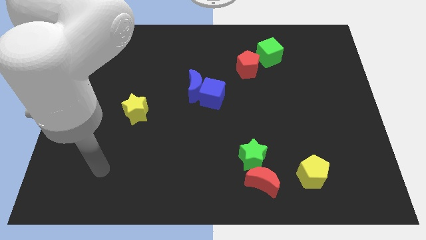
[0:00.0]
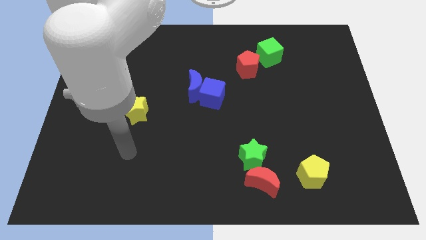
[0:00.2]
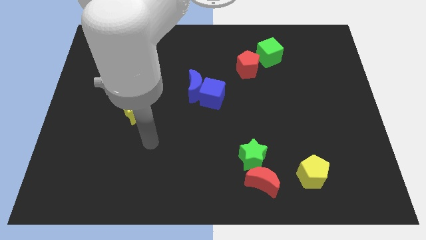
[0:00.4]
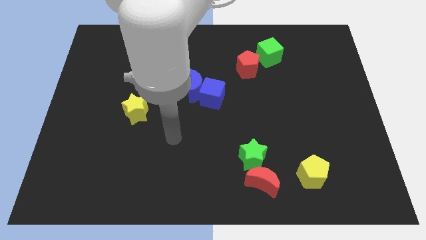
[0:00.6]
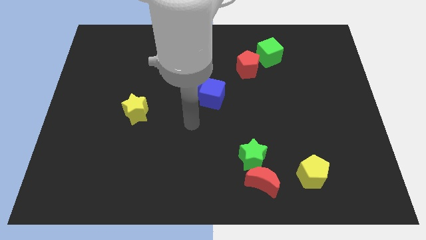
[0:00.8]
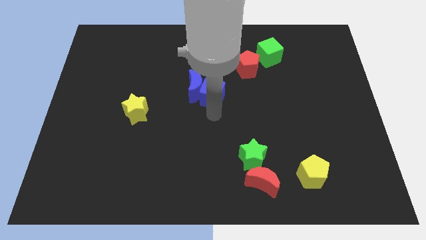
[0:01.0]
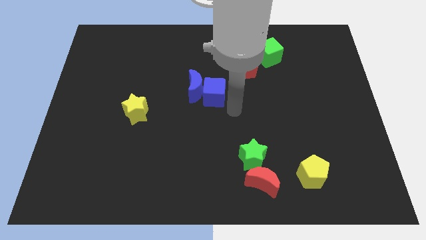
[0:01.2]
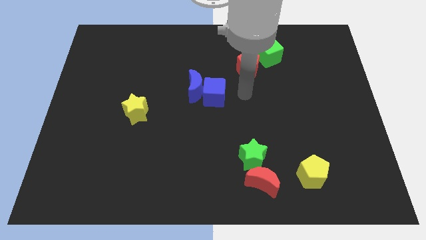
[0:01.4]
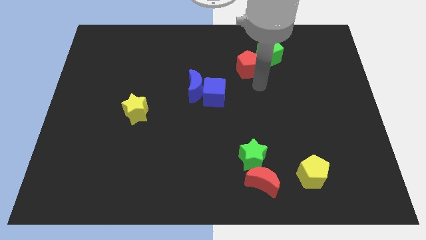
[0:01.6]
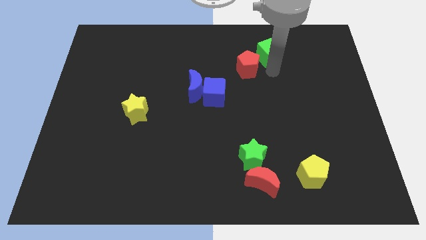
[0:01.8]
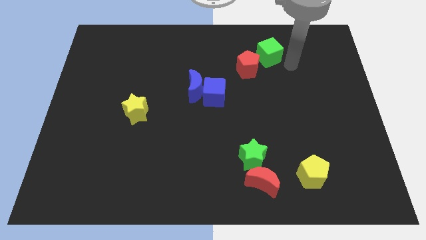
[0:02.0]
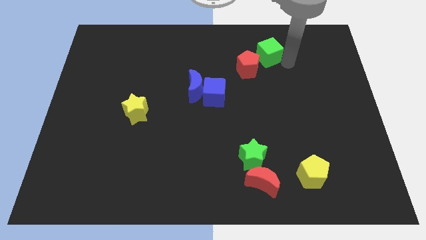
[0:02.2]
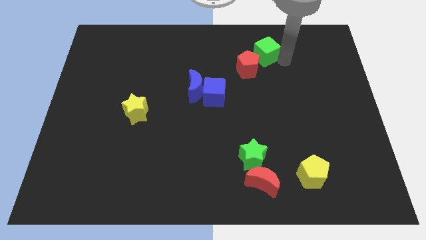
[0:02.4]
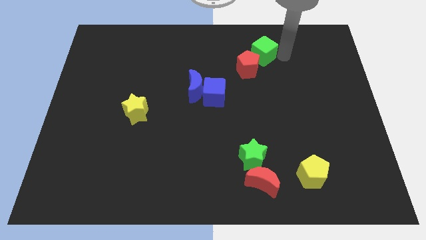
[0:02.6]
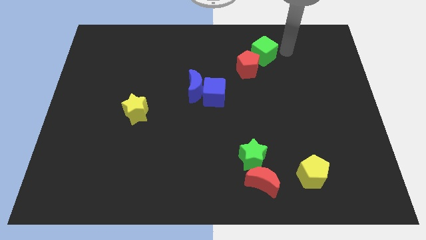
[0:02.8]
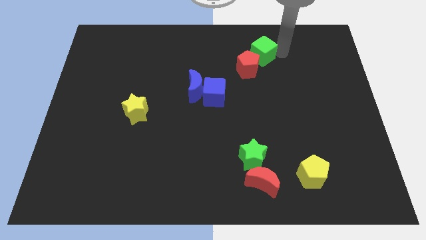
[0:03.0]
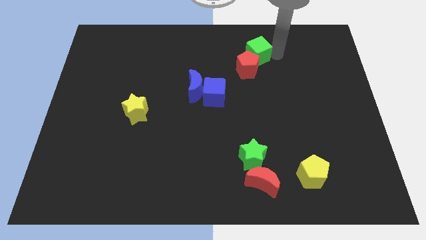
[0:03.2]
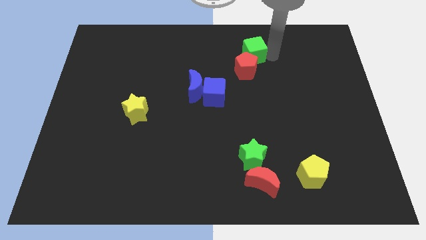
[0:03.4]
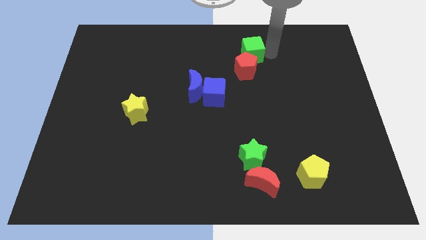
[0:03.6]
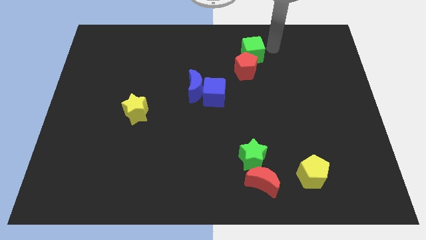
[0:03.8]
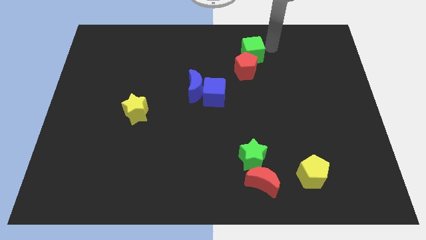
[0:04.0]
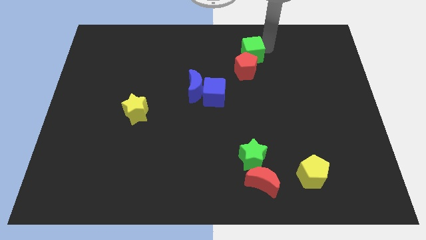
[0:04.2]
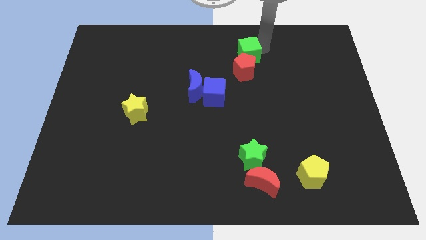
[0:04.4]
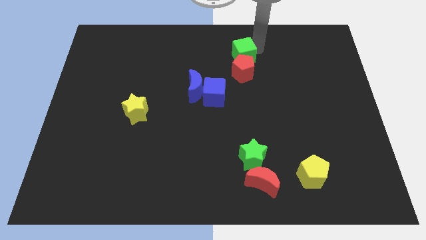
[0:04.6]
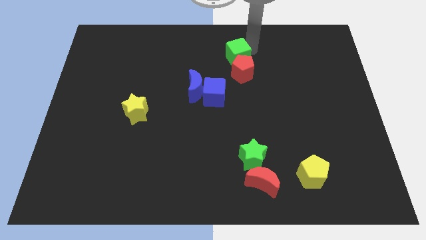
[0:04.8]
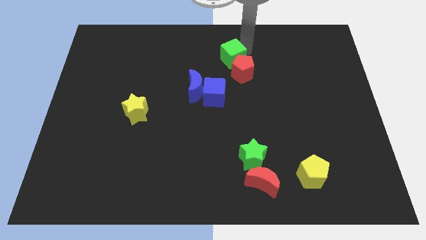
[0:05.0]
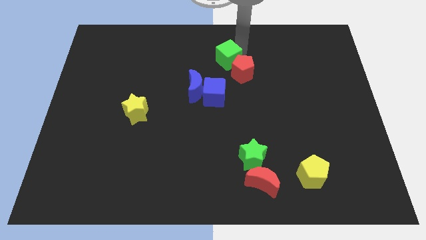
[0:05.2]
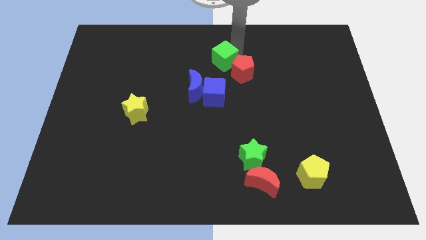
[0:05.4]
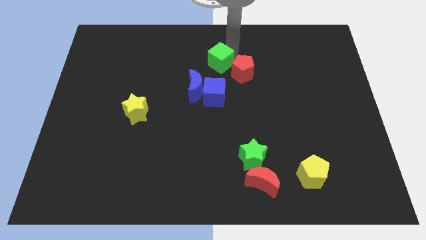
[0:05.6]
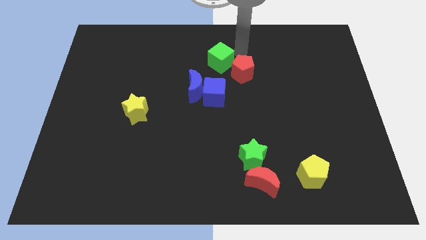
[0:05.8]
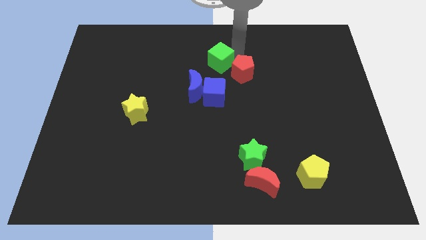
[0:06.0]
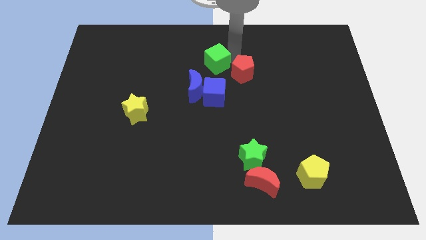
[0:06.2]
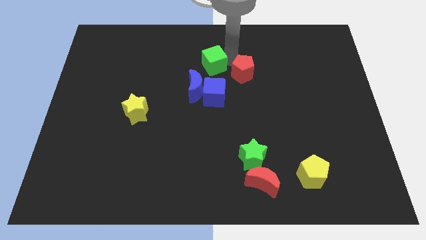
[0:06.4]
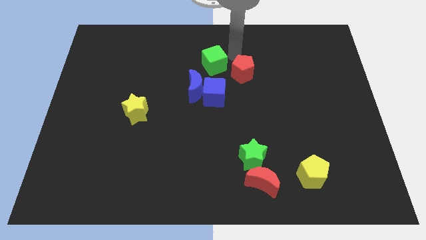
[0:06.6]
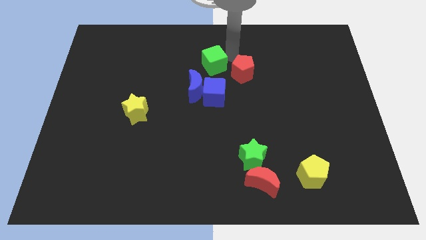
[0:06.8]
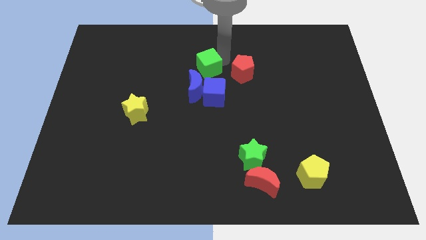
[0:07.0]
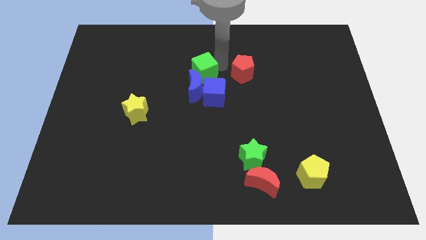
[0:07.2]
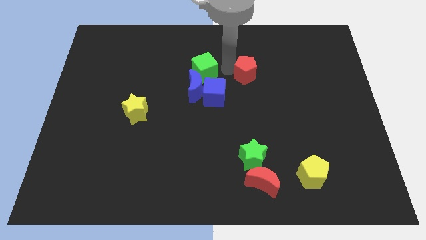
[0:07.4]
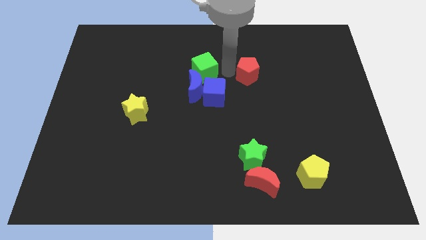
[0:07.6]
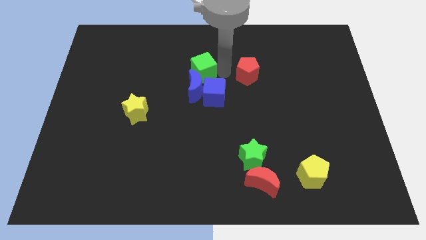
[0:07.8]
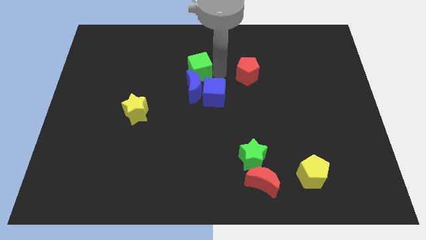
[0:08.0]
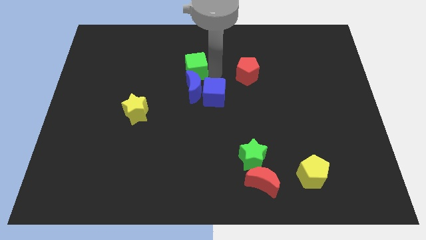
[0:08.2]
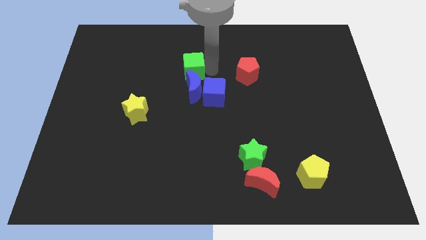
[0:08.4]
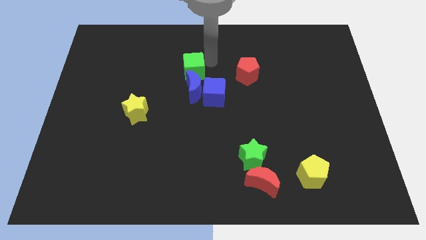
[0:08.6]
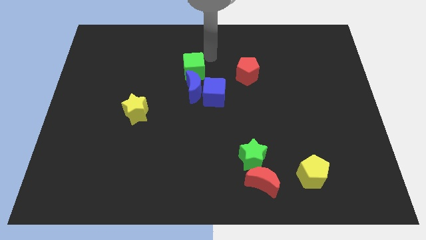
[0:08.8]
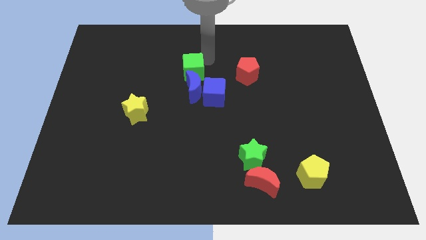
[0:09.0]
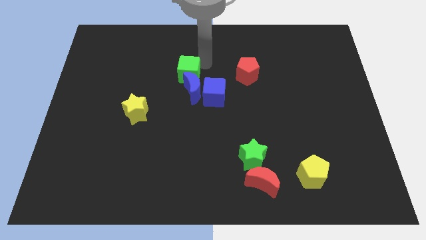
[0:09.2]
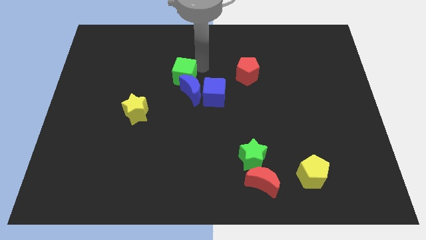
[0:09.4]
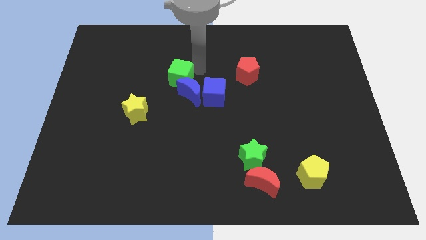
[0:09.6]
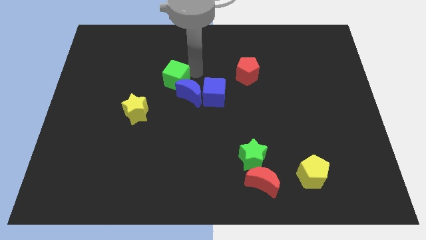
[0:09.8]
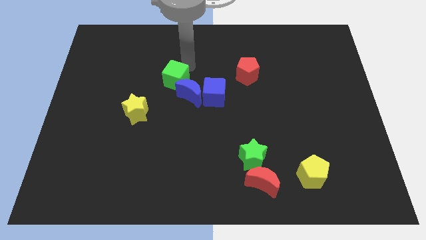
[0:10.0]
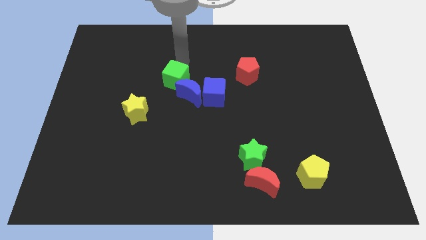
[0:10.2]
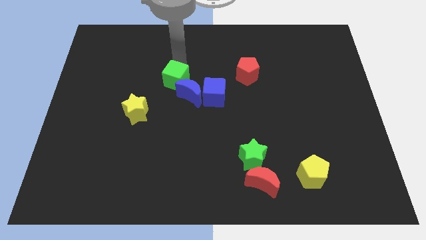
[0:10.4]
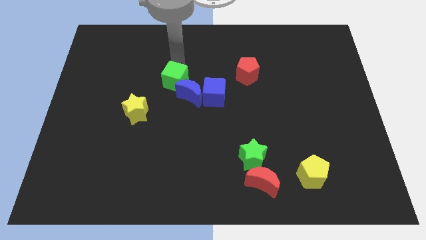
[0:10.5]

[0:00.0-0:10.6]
slide the green cube just left of the blue cube

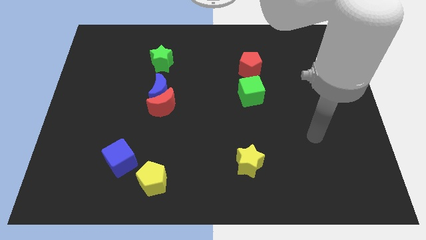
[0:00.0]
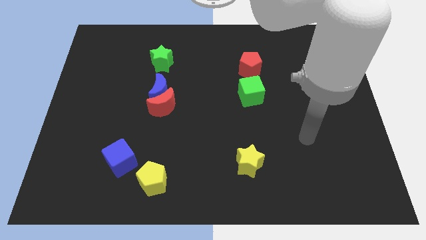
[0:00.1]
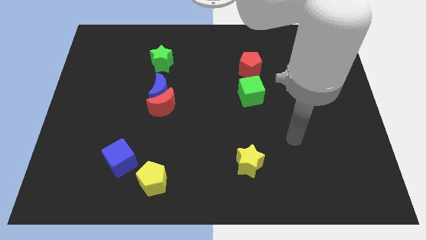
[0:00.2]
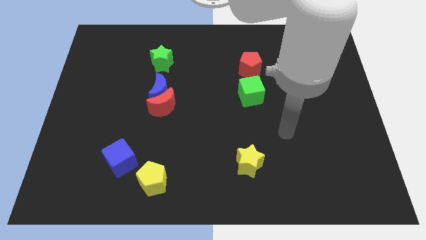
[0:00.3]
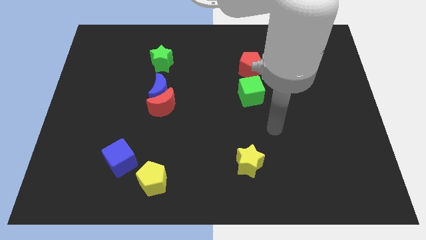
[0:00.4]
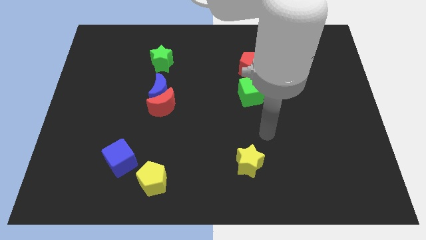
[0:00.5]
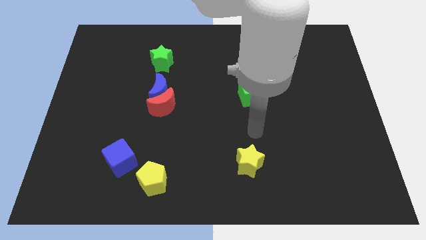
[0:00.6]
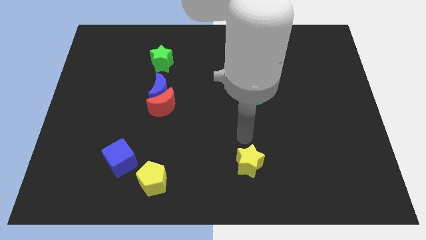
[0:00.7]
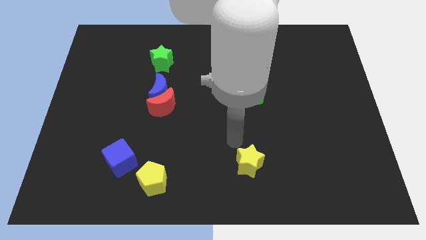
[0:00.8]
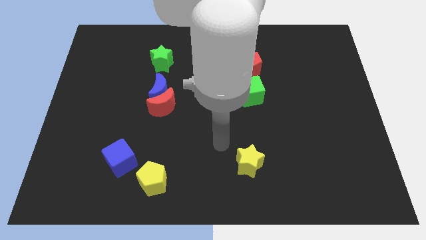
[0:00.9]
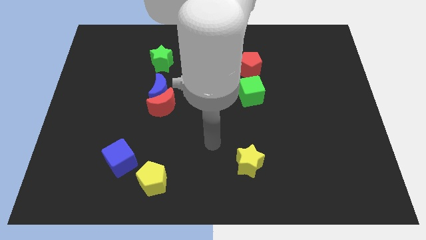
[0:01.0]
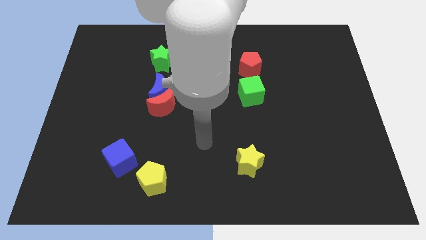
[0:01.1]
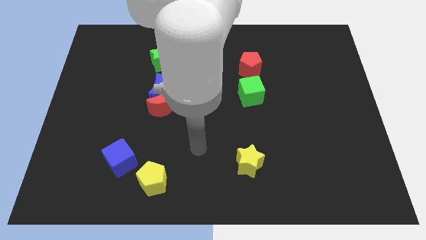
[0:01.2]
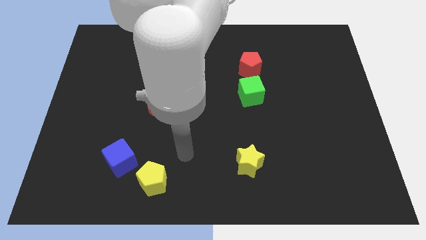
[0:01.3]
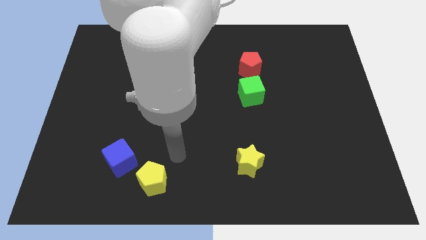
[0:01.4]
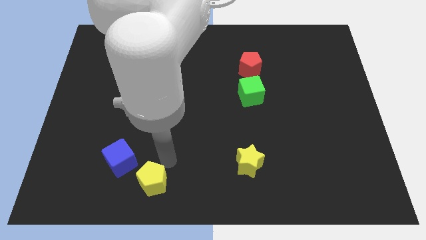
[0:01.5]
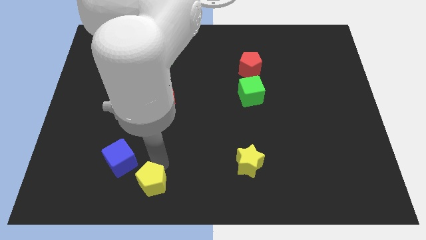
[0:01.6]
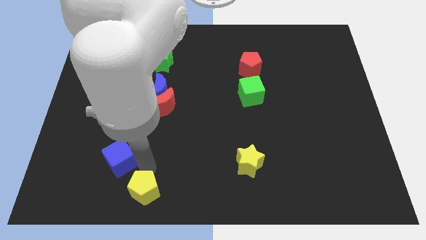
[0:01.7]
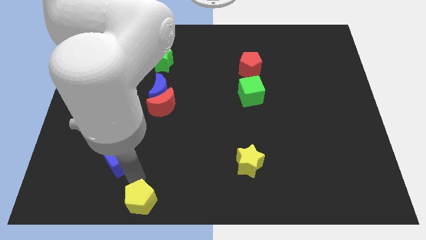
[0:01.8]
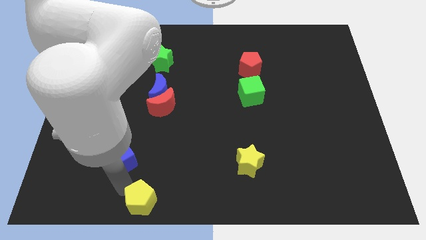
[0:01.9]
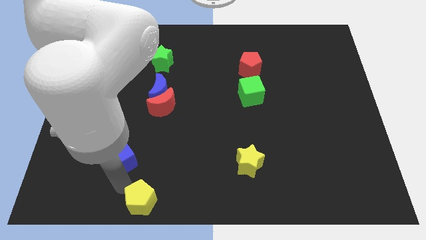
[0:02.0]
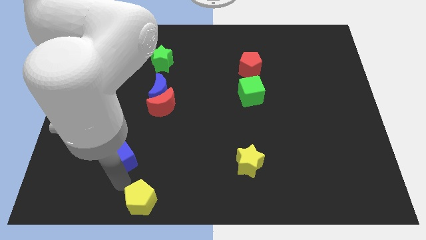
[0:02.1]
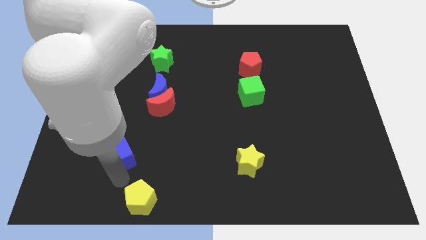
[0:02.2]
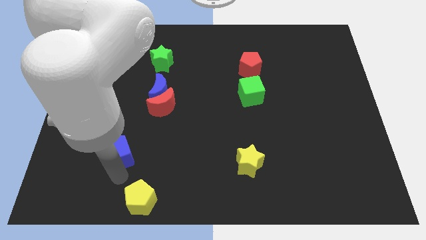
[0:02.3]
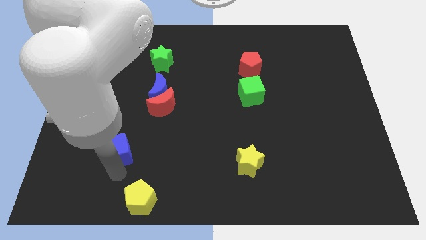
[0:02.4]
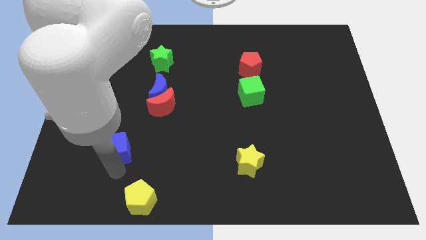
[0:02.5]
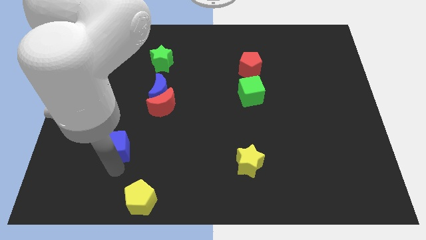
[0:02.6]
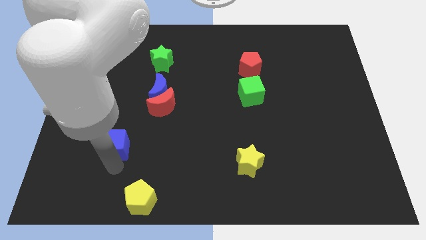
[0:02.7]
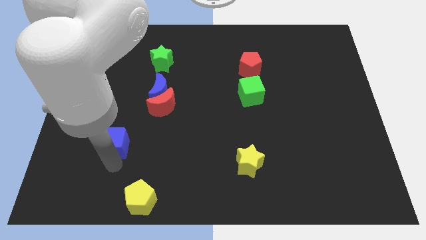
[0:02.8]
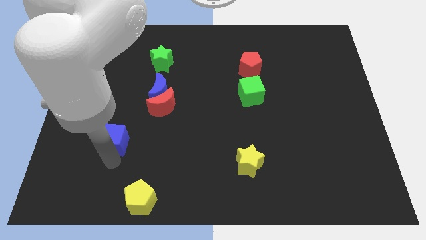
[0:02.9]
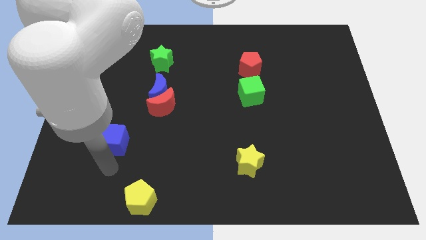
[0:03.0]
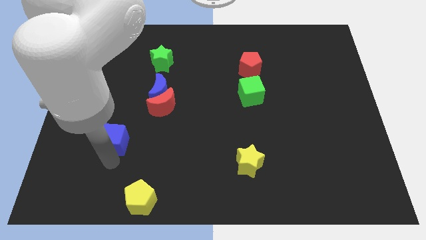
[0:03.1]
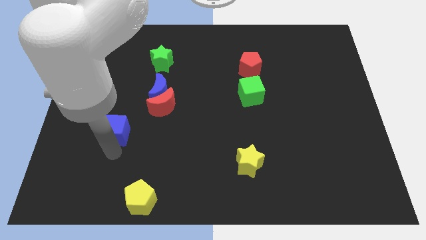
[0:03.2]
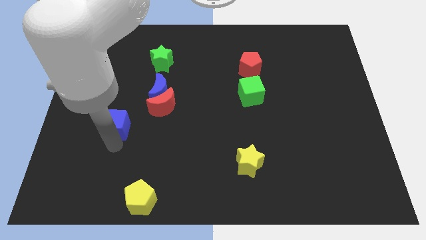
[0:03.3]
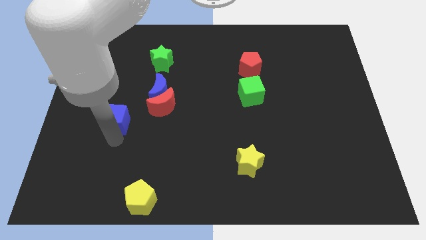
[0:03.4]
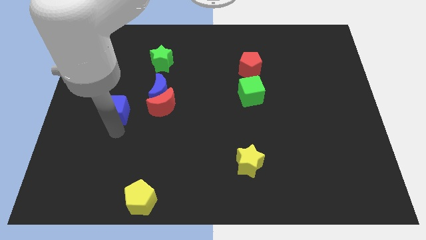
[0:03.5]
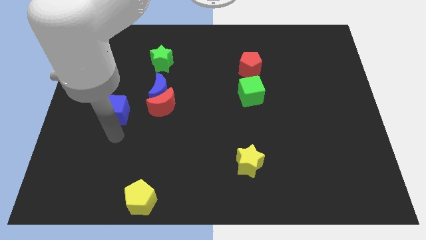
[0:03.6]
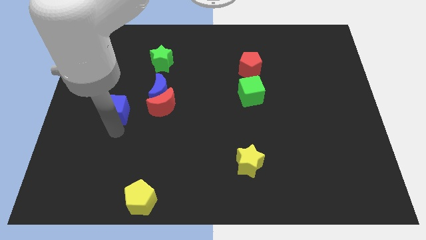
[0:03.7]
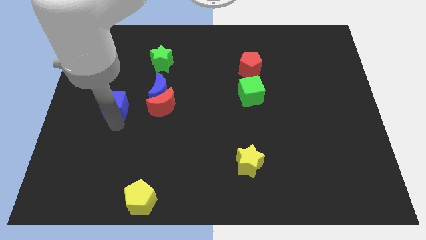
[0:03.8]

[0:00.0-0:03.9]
put the blue cube to the left side of the blue moon
